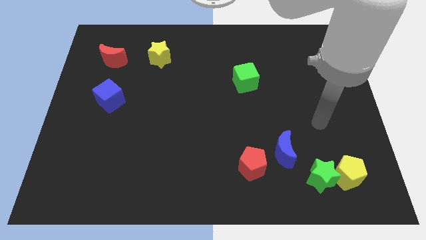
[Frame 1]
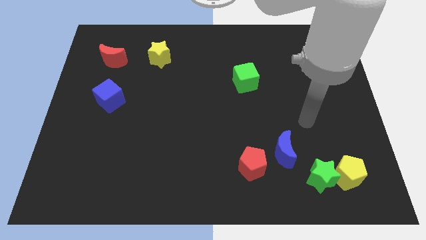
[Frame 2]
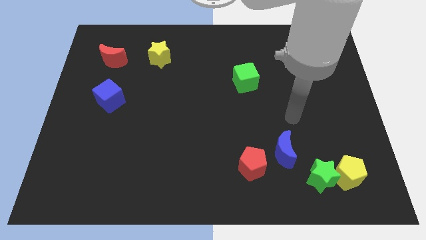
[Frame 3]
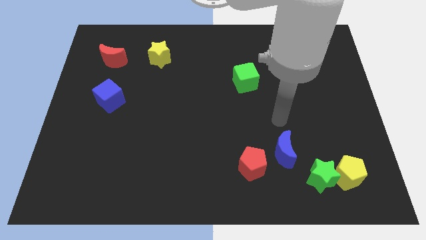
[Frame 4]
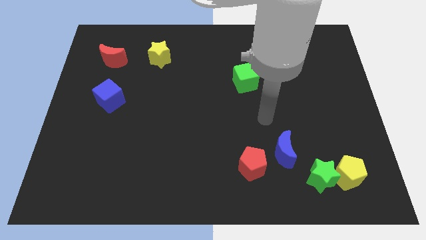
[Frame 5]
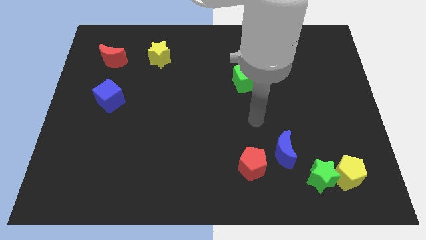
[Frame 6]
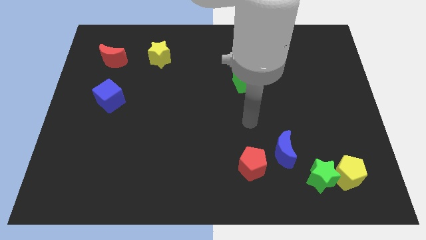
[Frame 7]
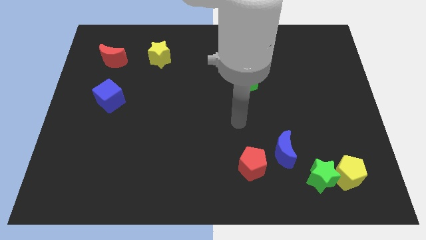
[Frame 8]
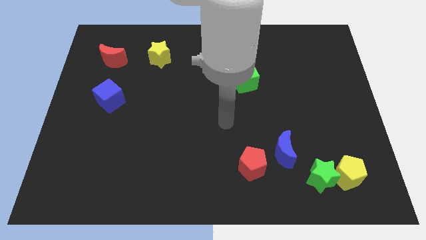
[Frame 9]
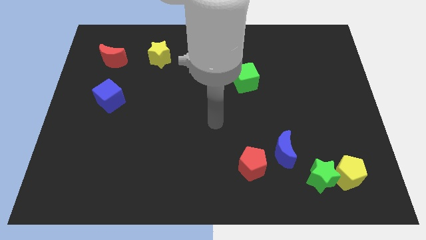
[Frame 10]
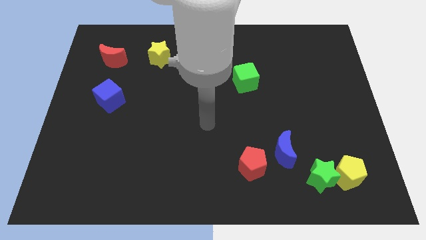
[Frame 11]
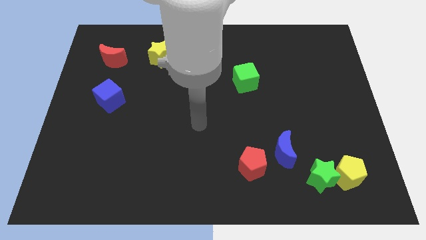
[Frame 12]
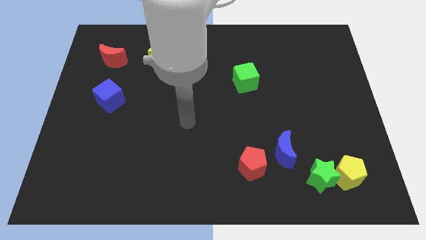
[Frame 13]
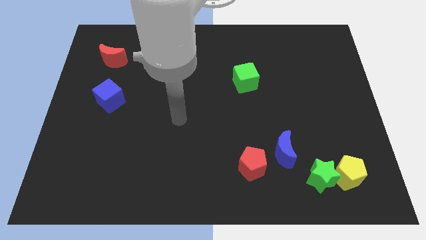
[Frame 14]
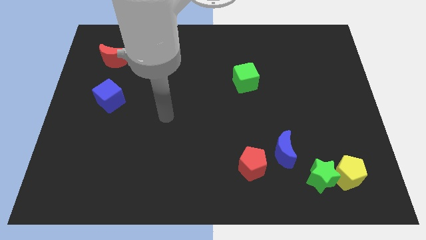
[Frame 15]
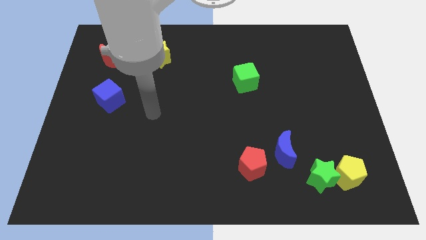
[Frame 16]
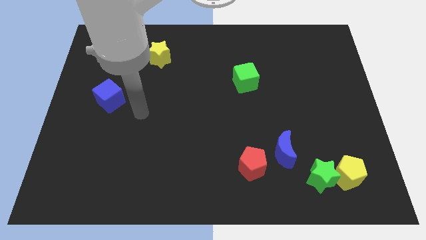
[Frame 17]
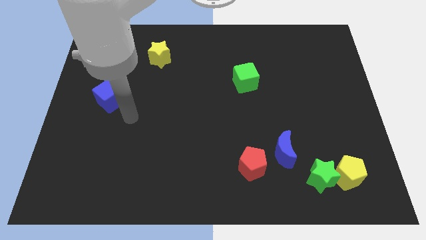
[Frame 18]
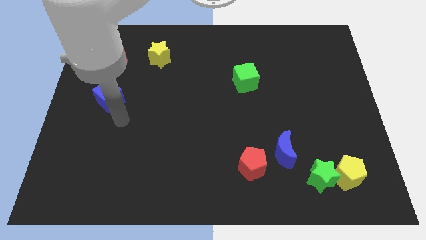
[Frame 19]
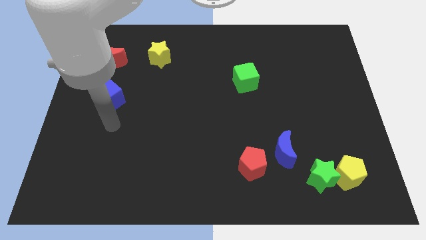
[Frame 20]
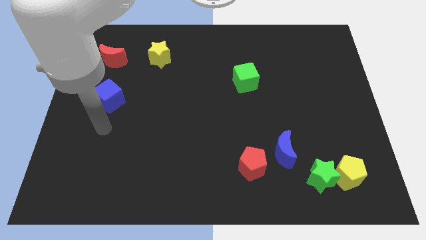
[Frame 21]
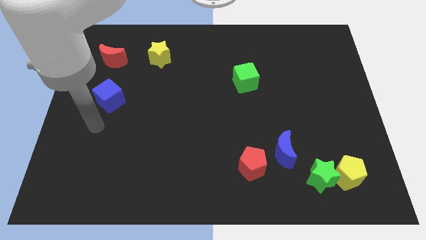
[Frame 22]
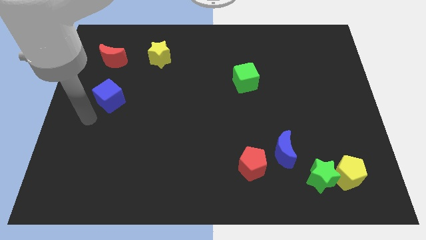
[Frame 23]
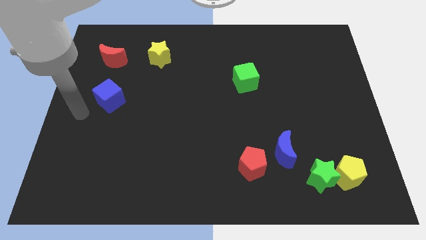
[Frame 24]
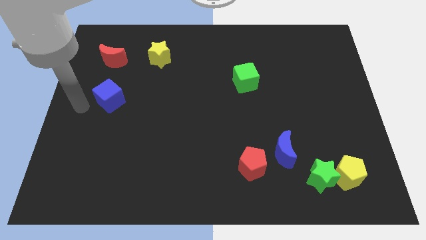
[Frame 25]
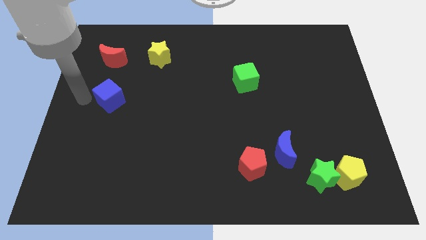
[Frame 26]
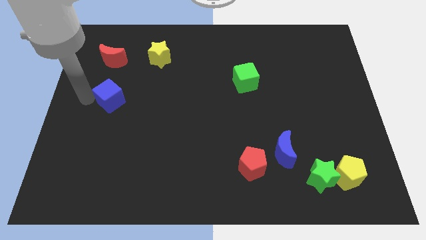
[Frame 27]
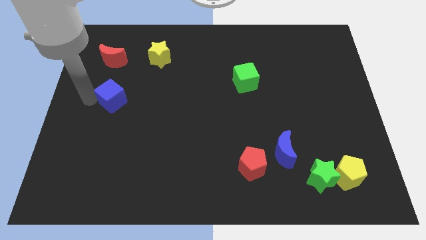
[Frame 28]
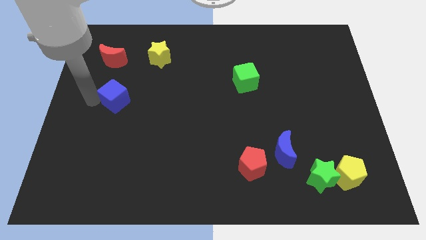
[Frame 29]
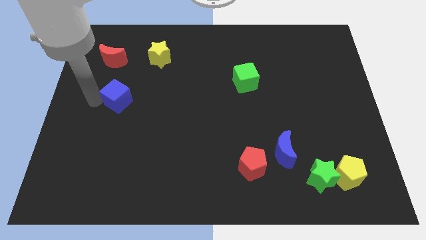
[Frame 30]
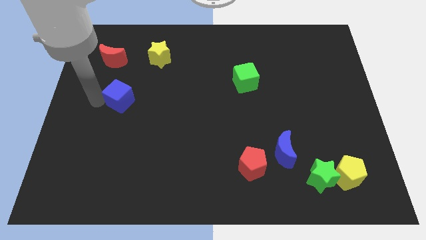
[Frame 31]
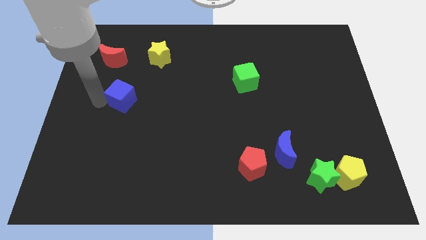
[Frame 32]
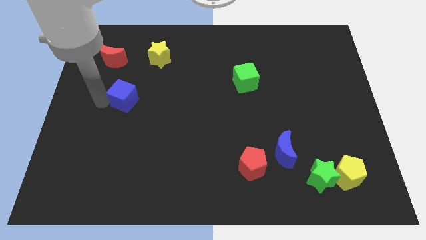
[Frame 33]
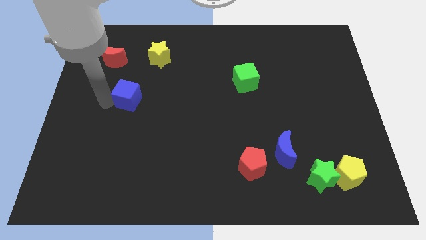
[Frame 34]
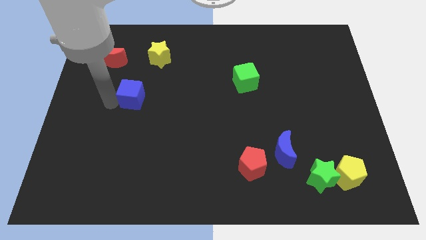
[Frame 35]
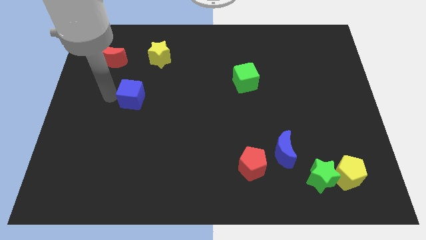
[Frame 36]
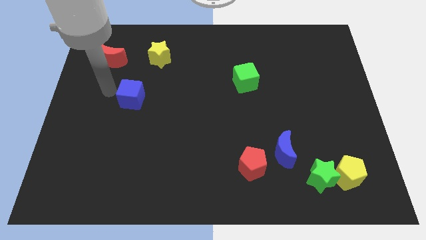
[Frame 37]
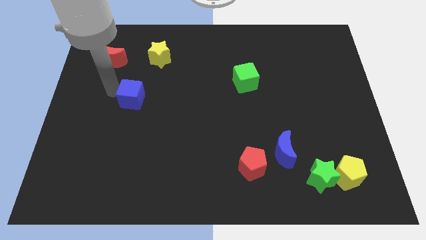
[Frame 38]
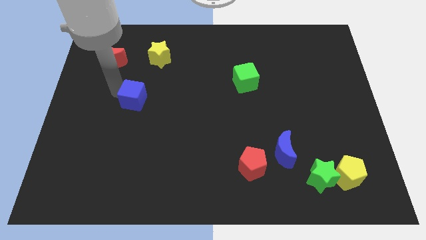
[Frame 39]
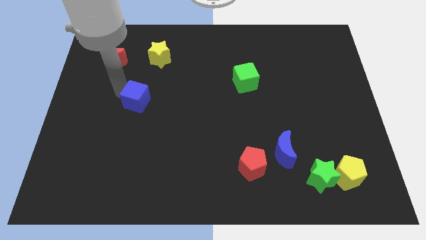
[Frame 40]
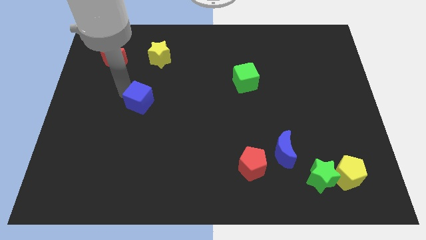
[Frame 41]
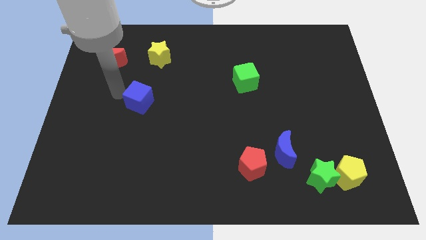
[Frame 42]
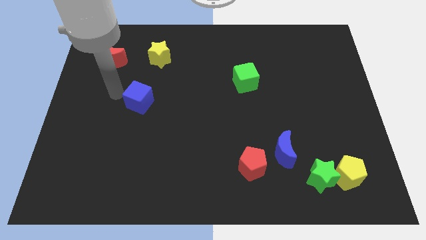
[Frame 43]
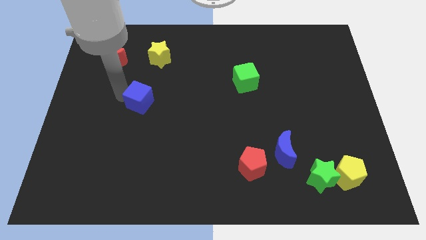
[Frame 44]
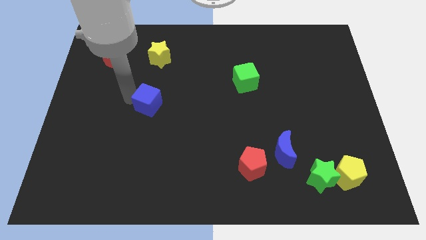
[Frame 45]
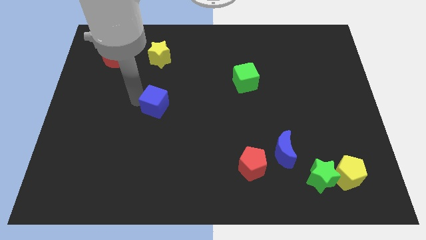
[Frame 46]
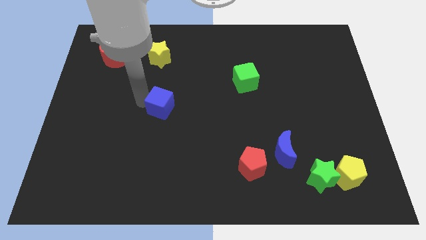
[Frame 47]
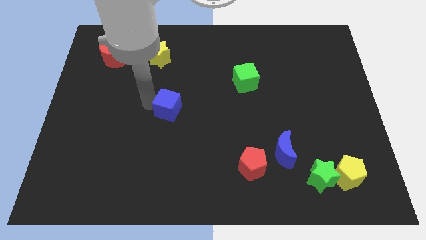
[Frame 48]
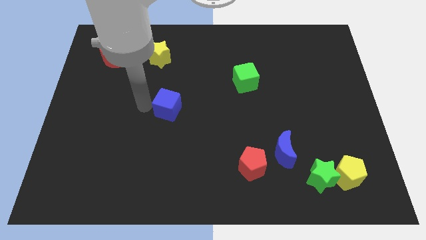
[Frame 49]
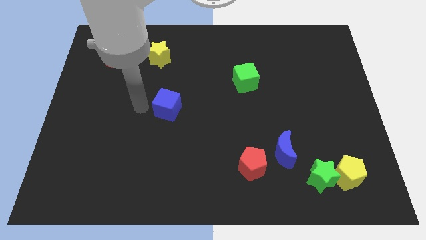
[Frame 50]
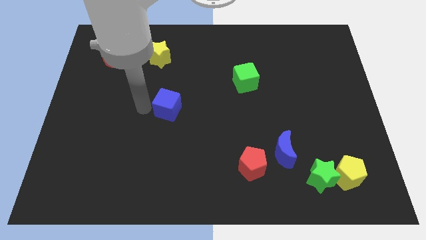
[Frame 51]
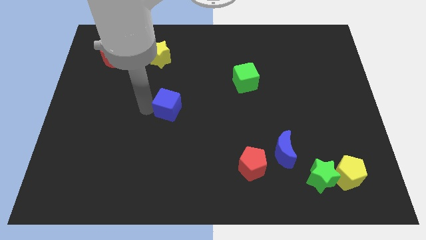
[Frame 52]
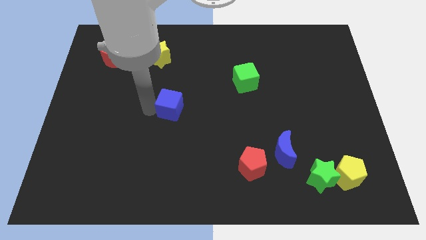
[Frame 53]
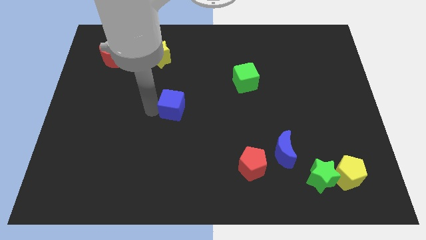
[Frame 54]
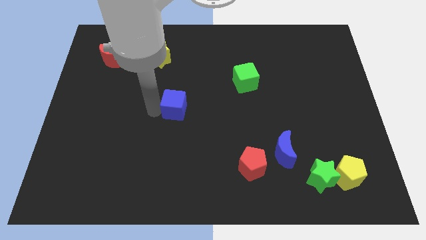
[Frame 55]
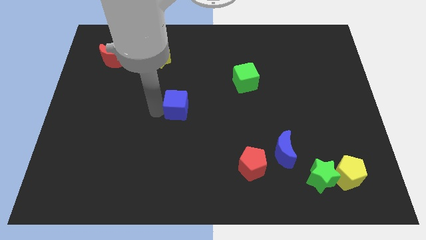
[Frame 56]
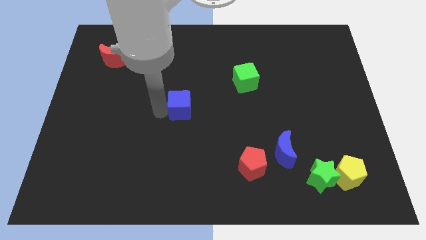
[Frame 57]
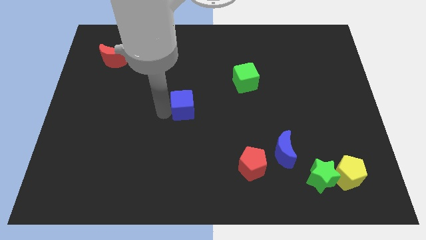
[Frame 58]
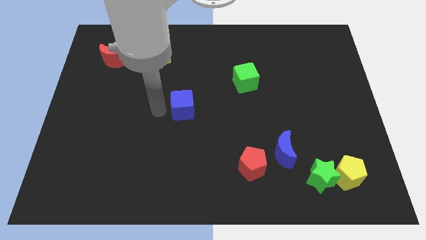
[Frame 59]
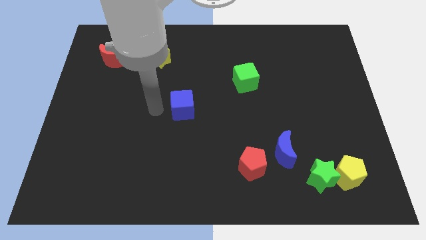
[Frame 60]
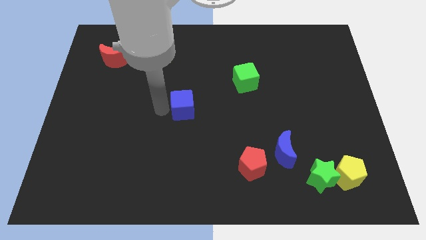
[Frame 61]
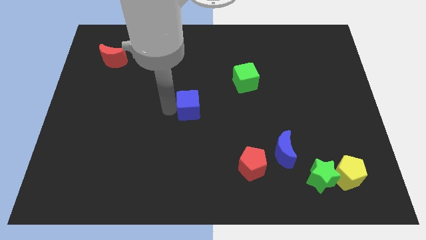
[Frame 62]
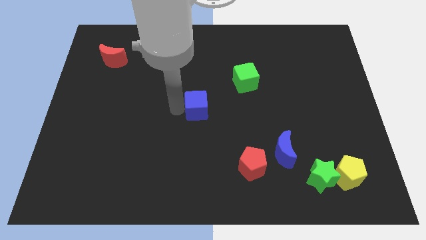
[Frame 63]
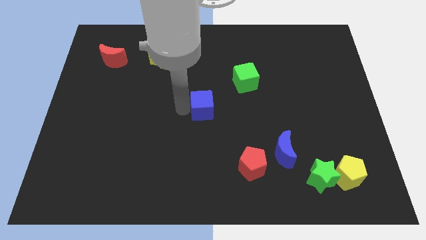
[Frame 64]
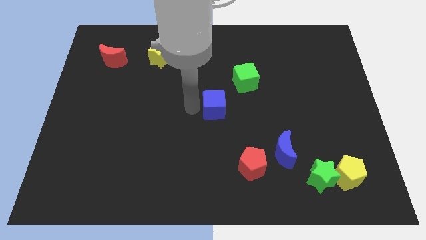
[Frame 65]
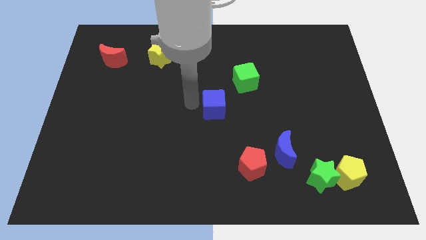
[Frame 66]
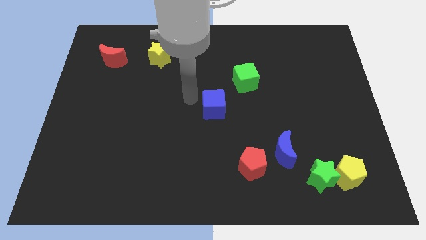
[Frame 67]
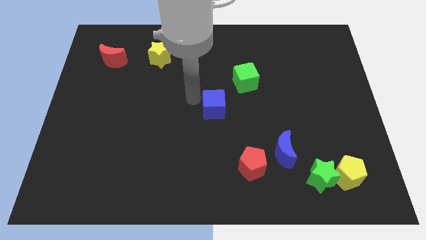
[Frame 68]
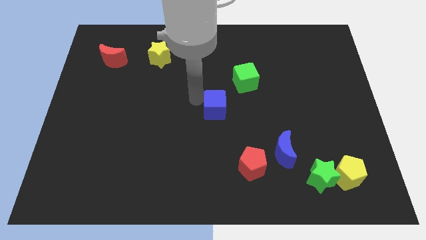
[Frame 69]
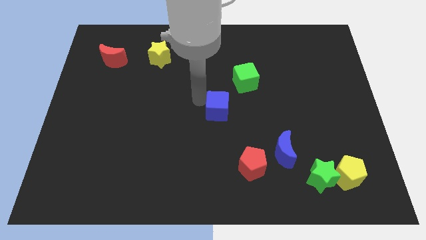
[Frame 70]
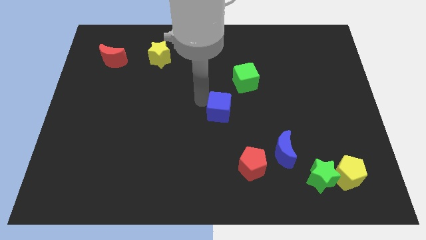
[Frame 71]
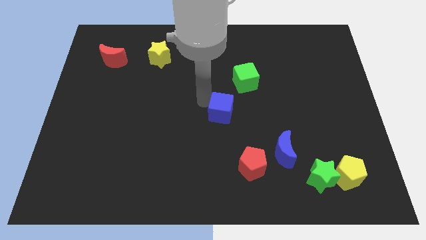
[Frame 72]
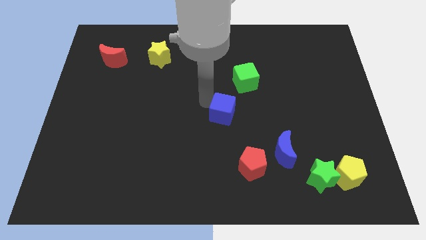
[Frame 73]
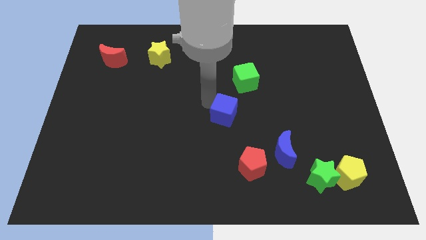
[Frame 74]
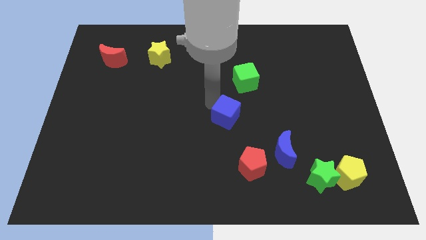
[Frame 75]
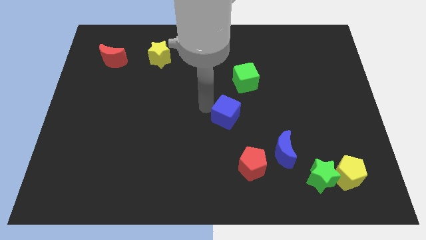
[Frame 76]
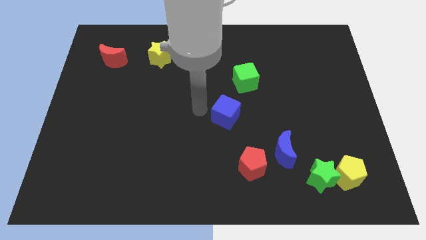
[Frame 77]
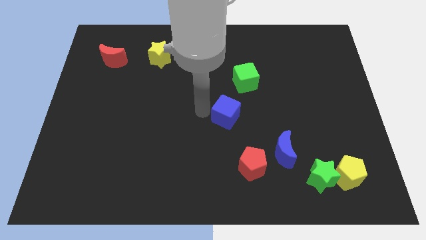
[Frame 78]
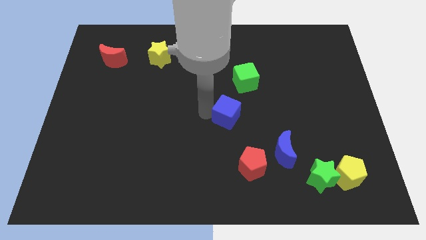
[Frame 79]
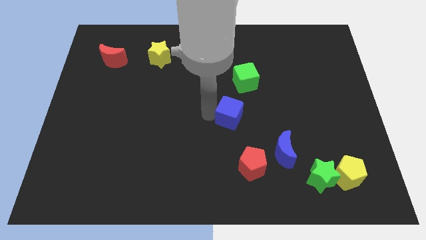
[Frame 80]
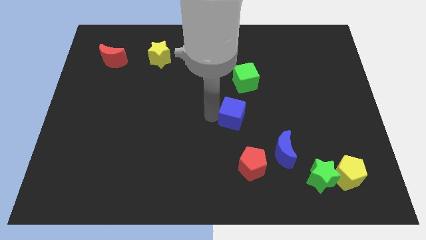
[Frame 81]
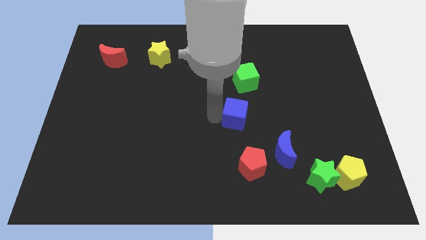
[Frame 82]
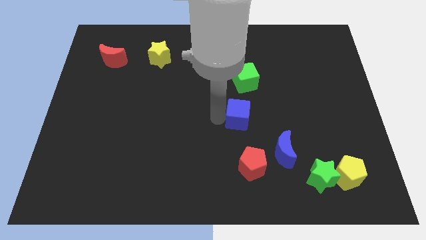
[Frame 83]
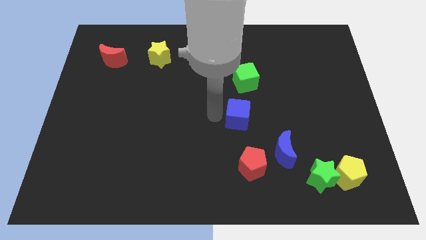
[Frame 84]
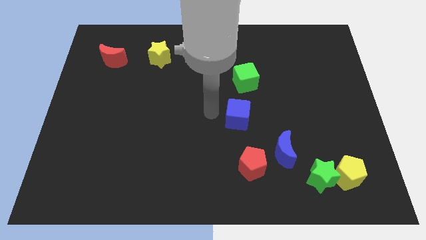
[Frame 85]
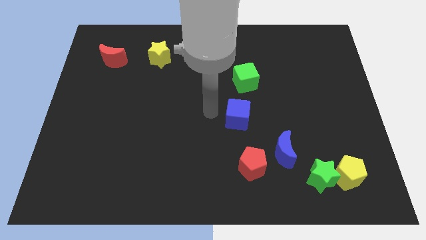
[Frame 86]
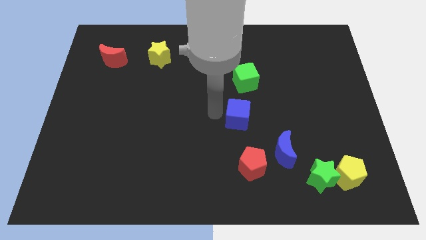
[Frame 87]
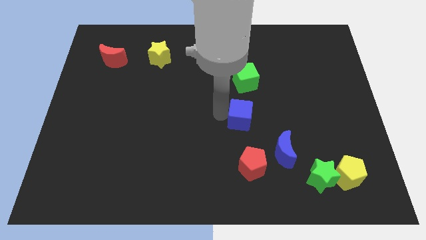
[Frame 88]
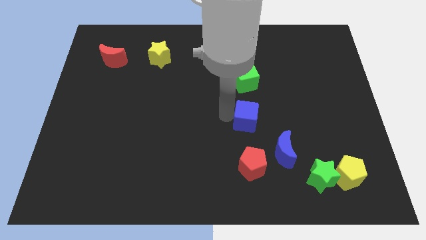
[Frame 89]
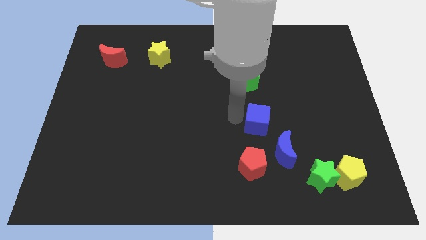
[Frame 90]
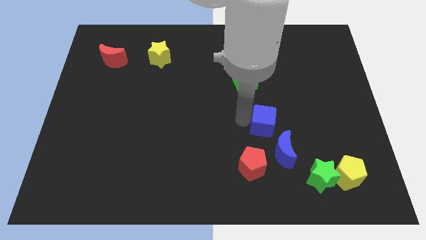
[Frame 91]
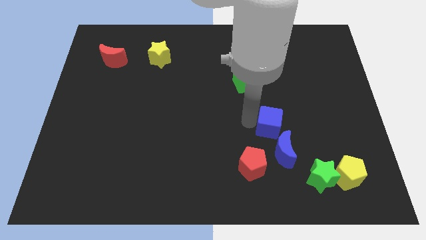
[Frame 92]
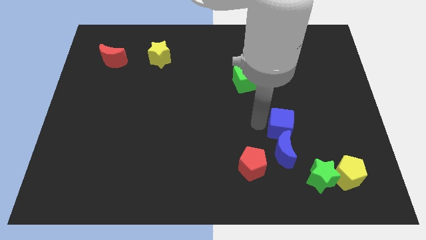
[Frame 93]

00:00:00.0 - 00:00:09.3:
slide the blue cube to the top right of the blue moon
